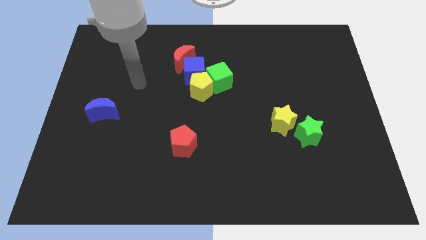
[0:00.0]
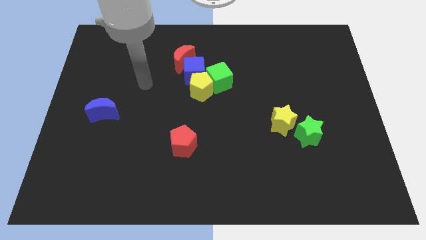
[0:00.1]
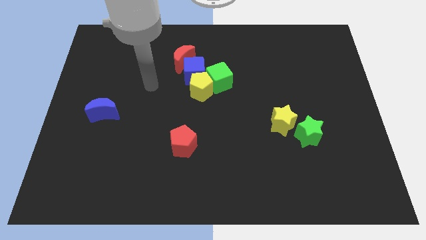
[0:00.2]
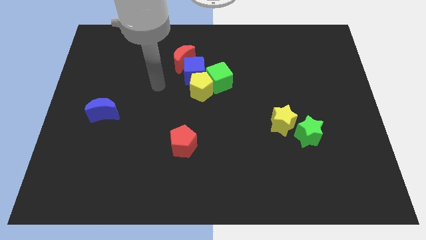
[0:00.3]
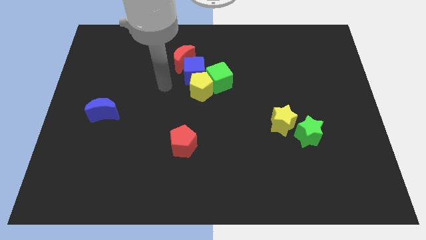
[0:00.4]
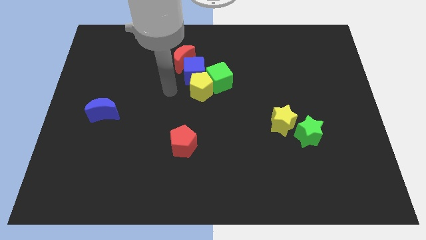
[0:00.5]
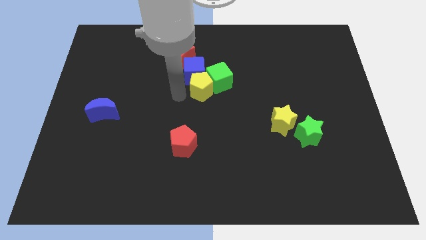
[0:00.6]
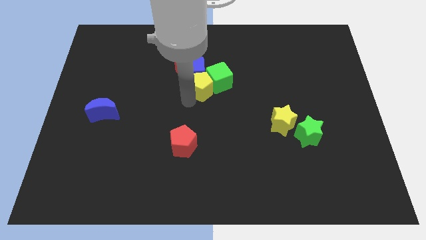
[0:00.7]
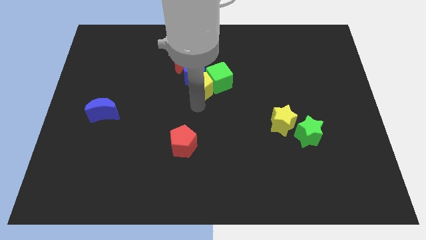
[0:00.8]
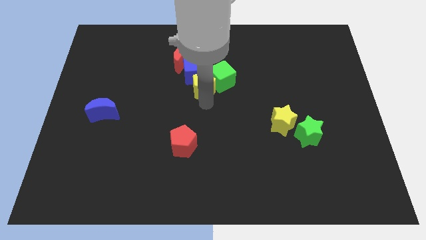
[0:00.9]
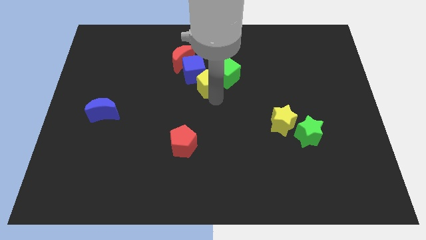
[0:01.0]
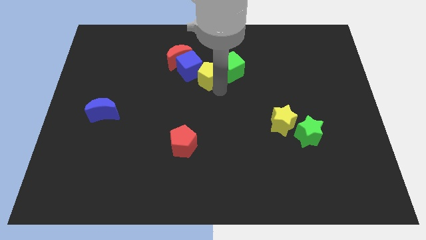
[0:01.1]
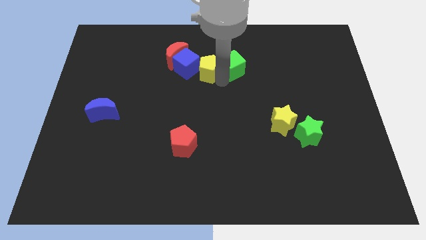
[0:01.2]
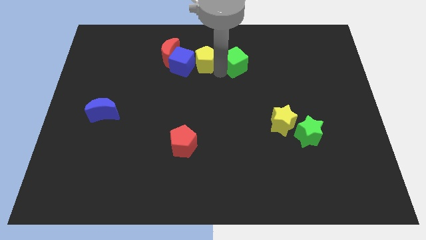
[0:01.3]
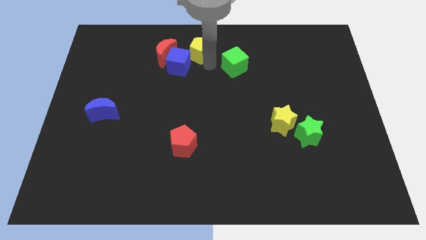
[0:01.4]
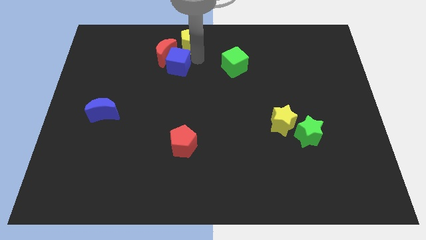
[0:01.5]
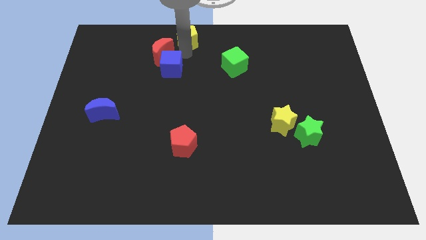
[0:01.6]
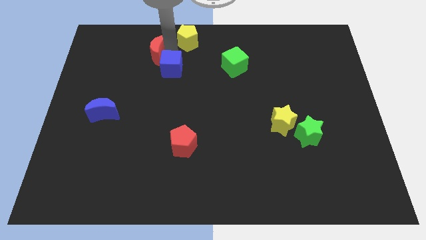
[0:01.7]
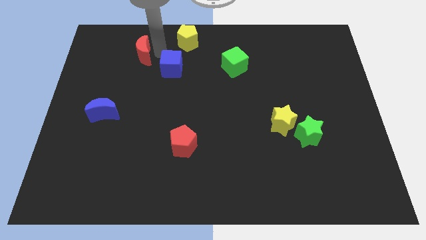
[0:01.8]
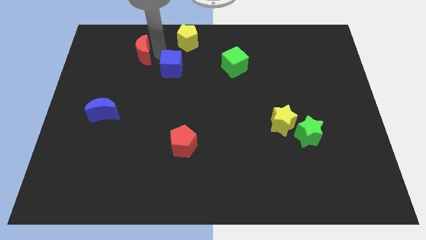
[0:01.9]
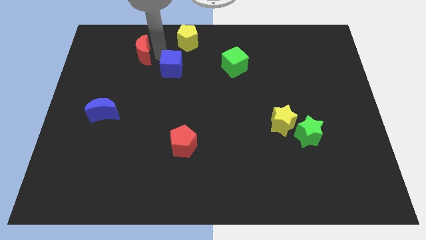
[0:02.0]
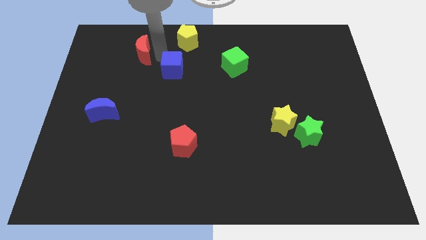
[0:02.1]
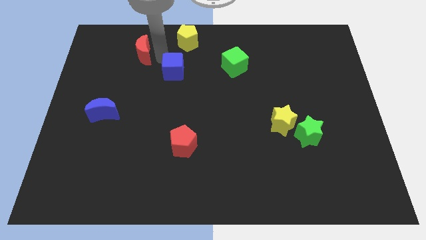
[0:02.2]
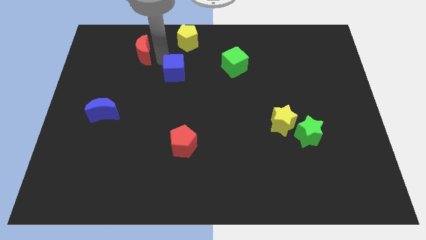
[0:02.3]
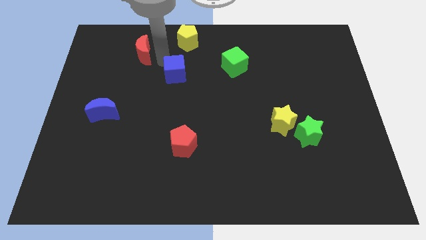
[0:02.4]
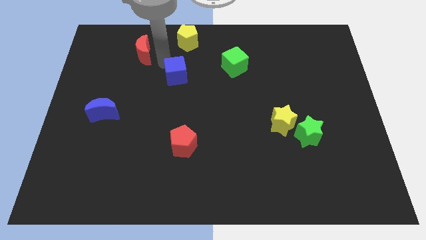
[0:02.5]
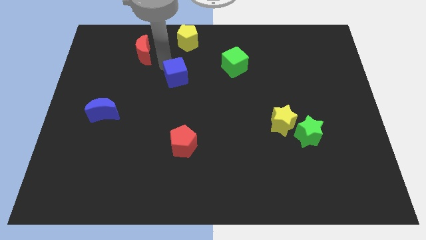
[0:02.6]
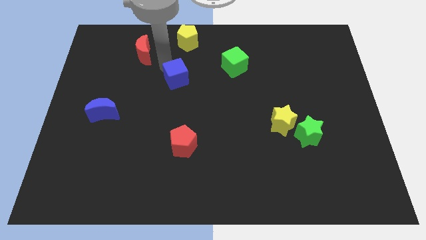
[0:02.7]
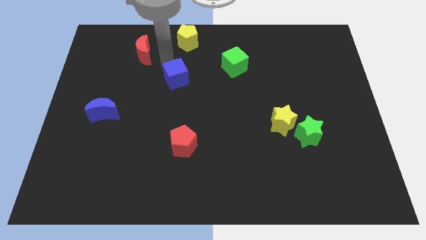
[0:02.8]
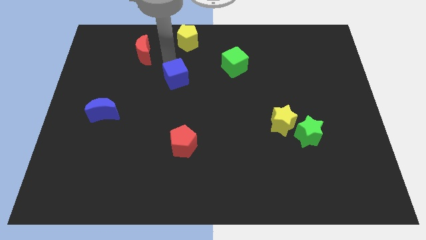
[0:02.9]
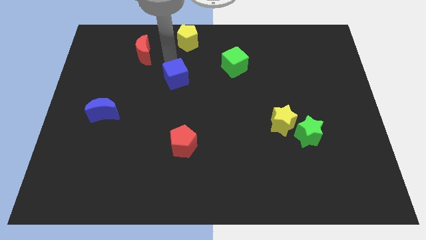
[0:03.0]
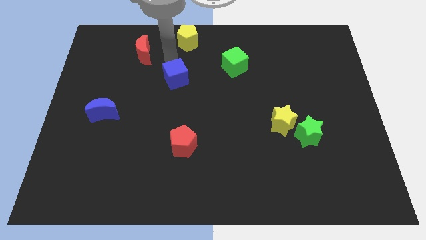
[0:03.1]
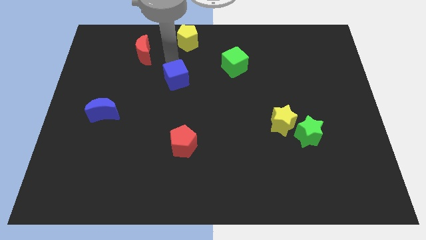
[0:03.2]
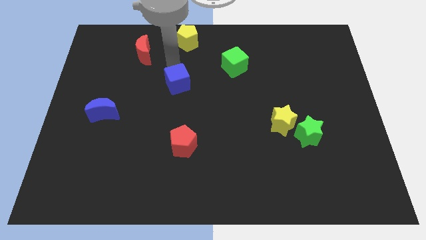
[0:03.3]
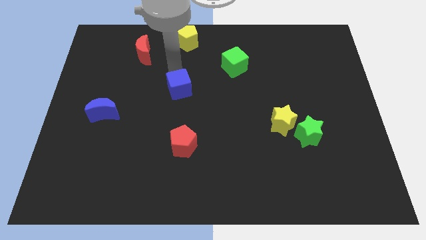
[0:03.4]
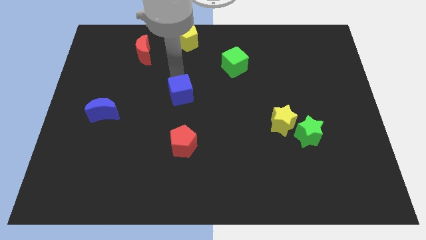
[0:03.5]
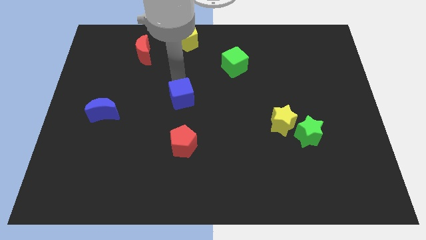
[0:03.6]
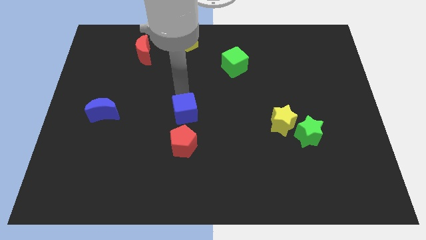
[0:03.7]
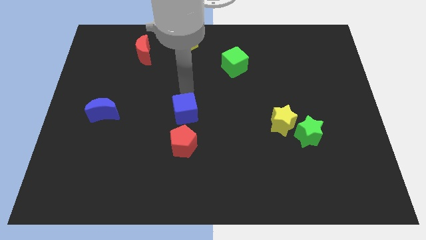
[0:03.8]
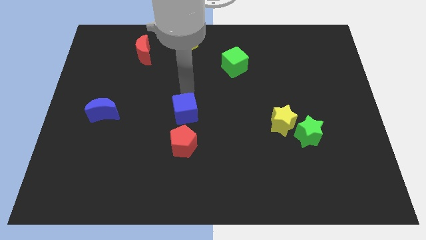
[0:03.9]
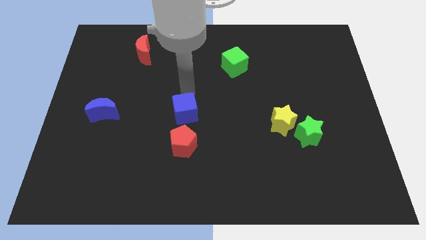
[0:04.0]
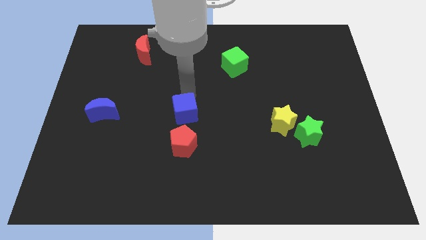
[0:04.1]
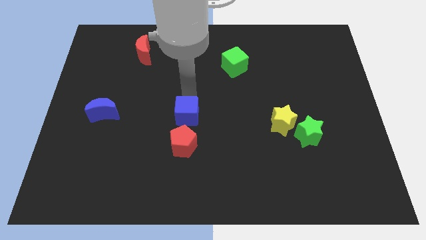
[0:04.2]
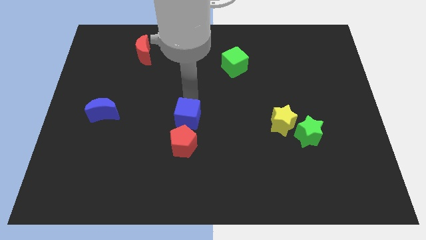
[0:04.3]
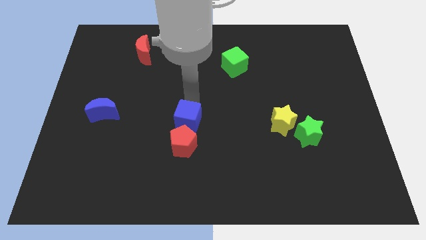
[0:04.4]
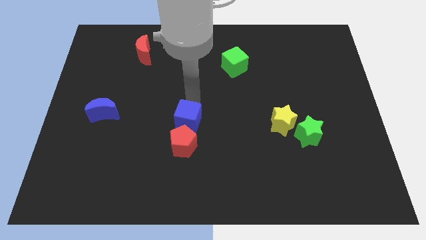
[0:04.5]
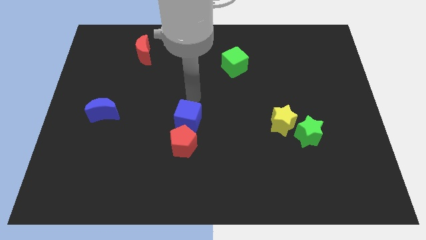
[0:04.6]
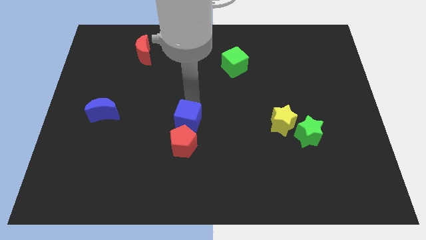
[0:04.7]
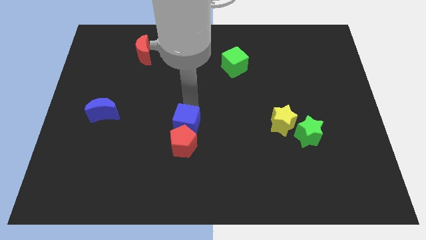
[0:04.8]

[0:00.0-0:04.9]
slide the blue cube next to the red pentagon

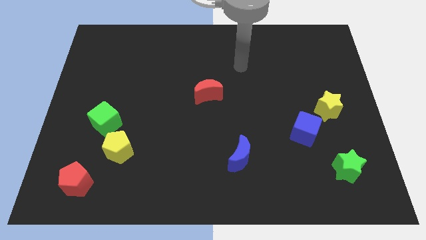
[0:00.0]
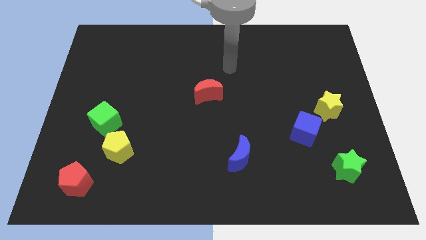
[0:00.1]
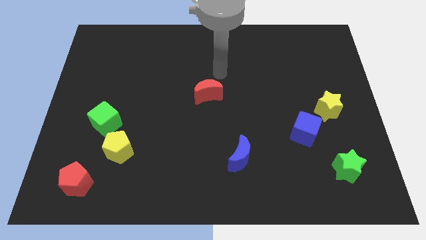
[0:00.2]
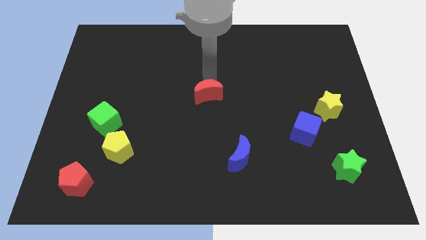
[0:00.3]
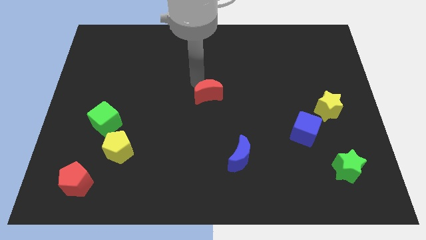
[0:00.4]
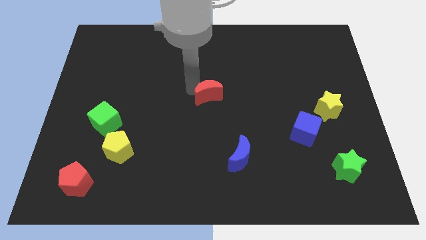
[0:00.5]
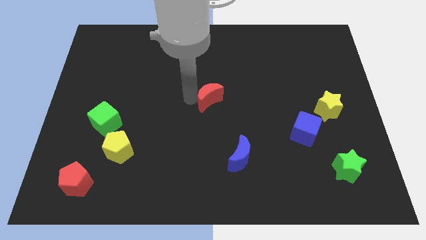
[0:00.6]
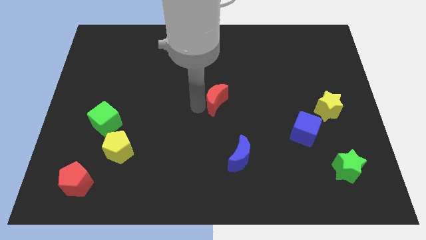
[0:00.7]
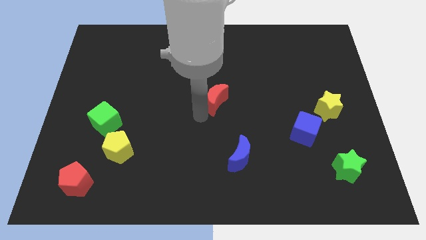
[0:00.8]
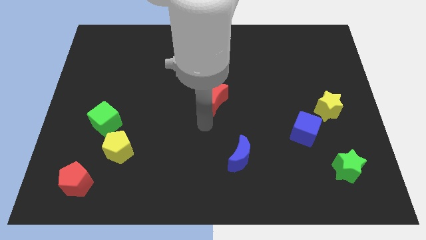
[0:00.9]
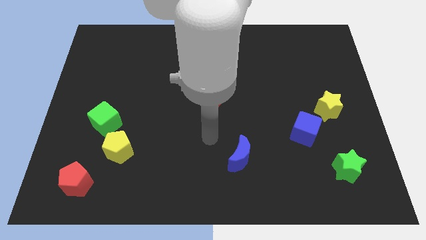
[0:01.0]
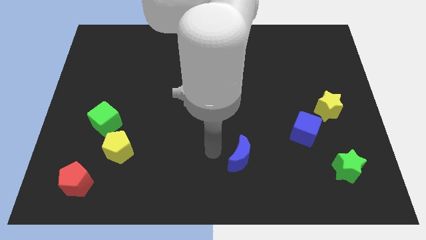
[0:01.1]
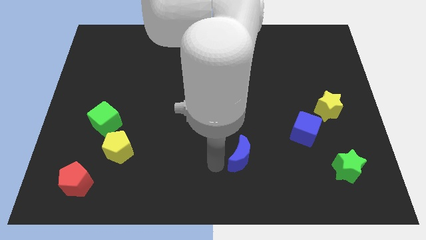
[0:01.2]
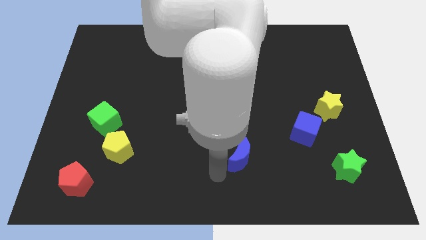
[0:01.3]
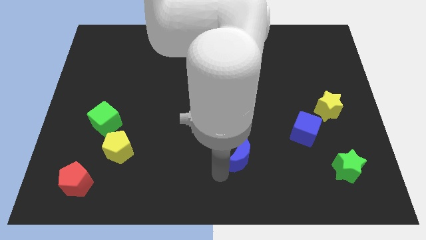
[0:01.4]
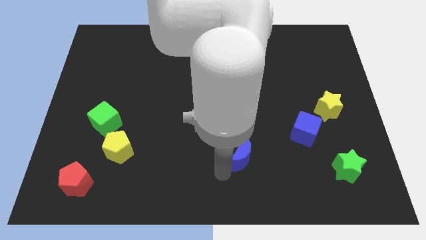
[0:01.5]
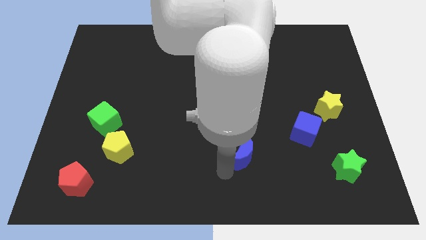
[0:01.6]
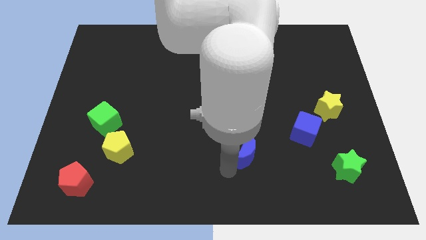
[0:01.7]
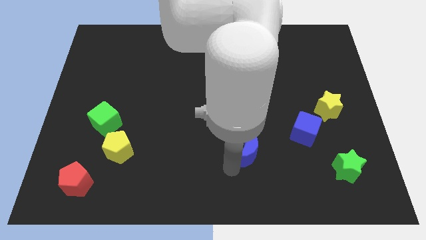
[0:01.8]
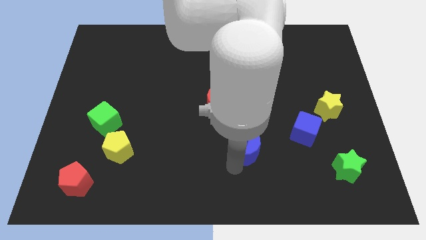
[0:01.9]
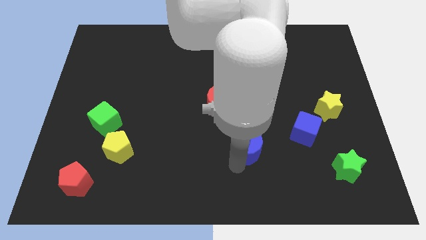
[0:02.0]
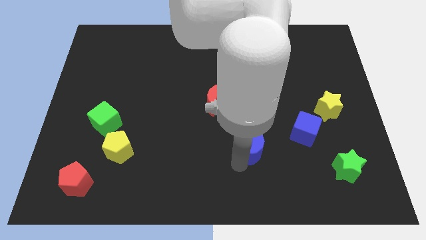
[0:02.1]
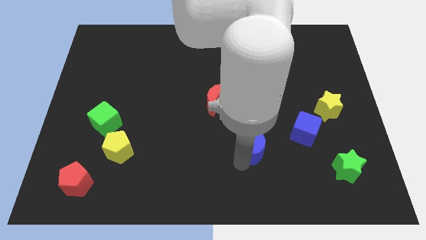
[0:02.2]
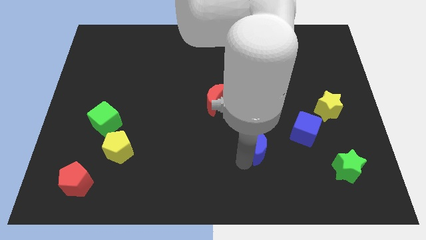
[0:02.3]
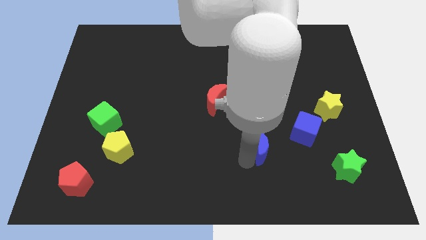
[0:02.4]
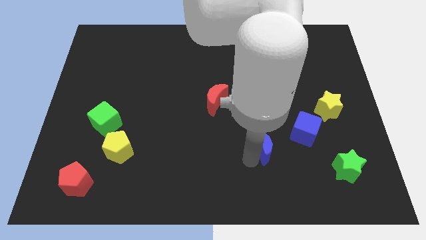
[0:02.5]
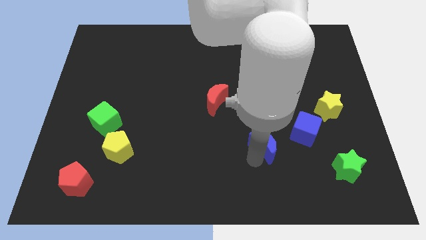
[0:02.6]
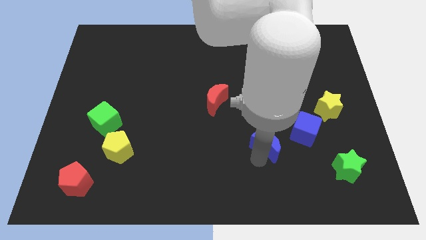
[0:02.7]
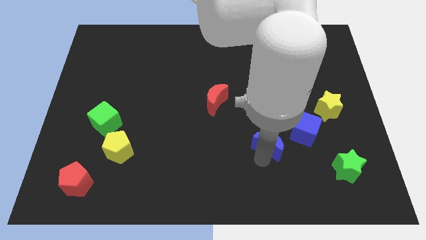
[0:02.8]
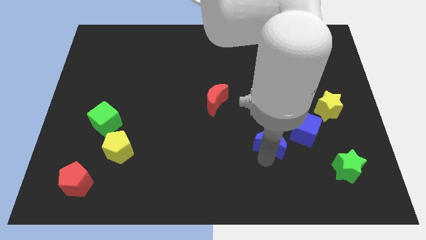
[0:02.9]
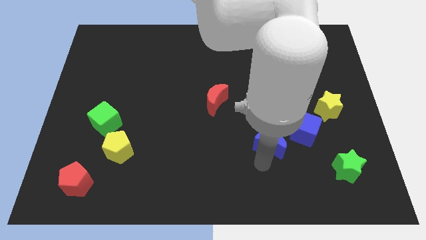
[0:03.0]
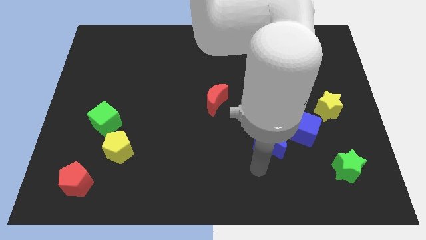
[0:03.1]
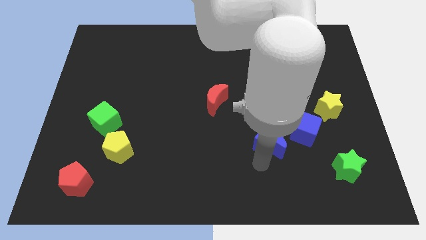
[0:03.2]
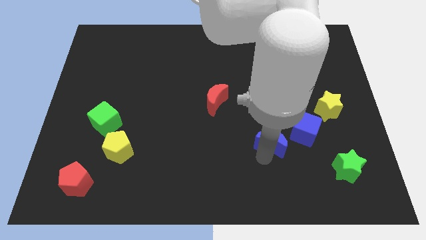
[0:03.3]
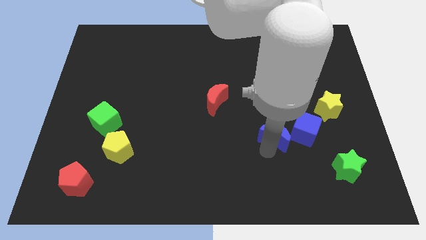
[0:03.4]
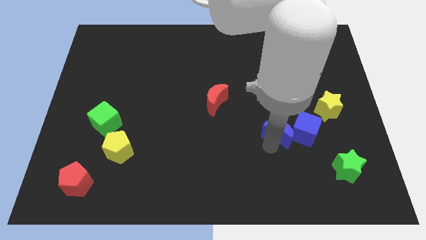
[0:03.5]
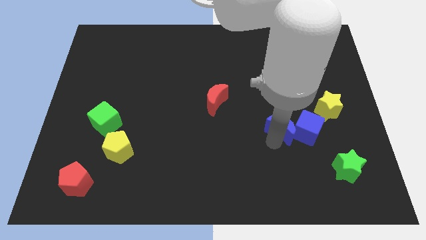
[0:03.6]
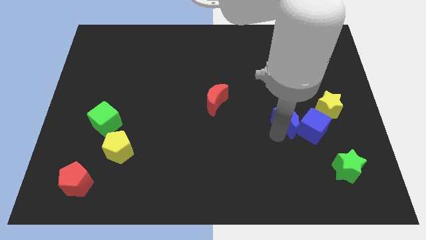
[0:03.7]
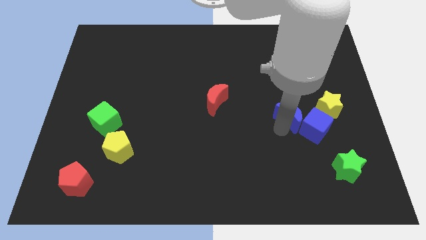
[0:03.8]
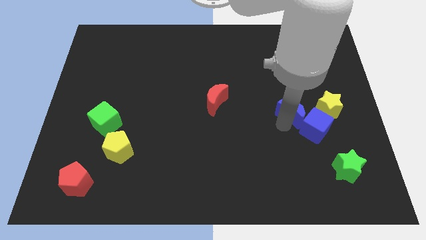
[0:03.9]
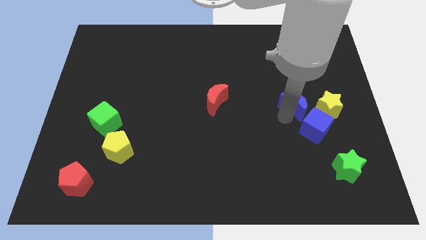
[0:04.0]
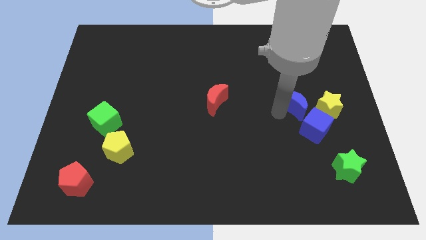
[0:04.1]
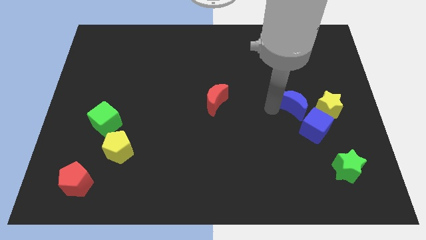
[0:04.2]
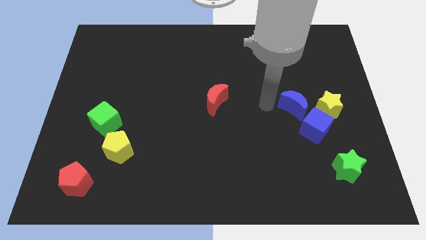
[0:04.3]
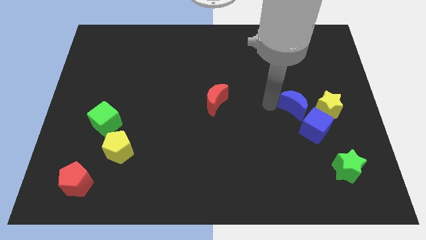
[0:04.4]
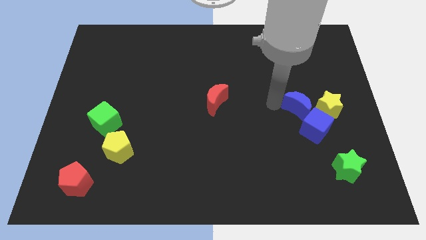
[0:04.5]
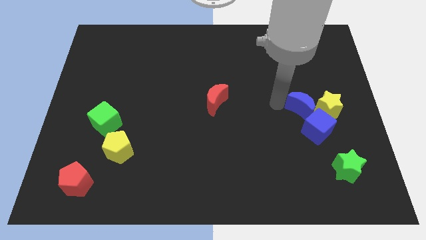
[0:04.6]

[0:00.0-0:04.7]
move the blue moon to the yellow star
